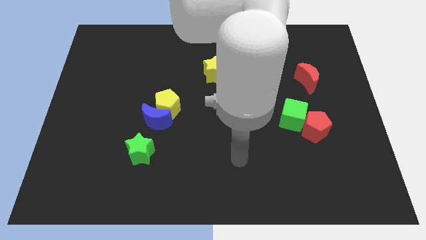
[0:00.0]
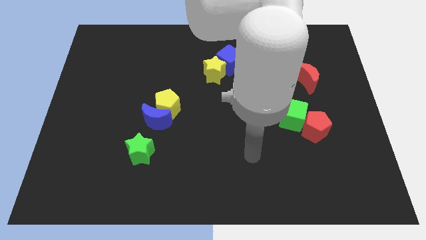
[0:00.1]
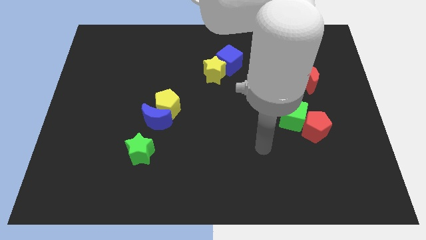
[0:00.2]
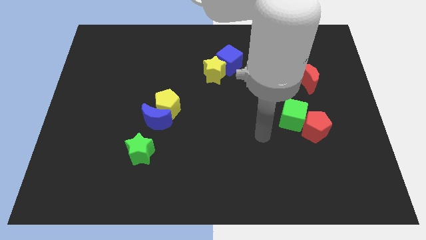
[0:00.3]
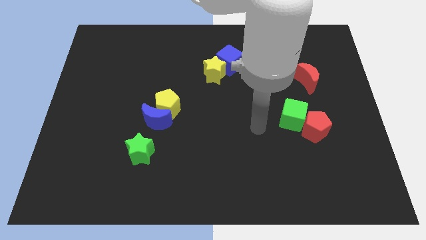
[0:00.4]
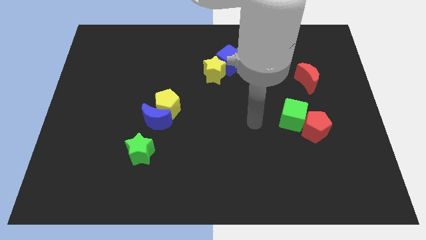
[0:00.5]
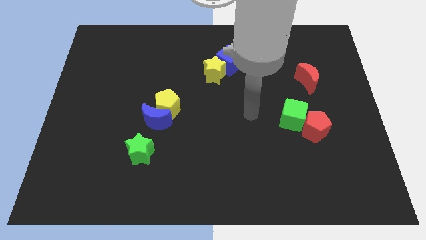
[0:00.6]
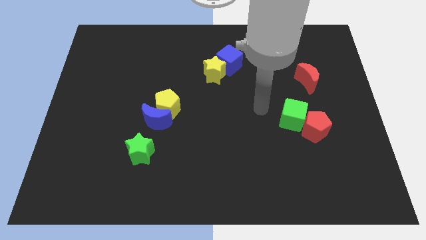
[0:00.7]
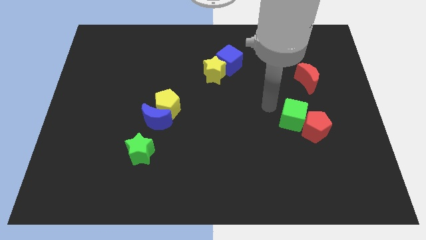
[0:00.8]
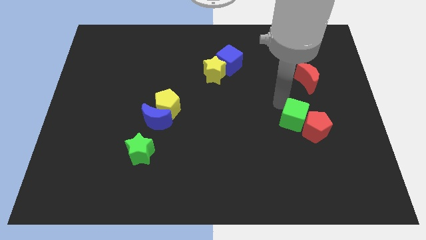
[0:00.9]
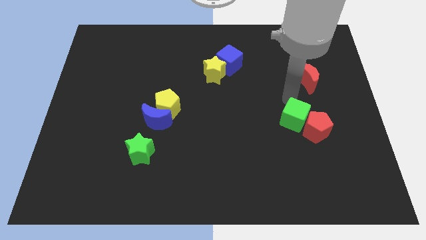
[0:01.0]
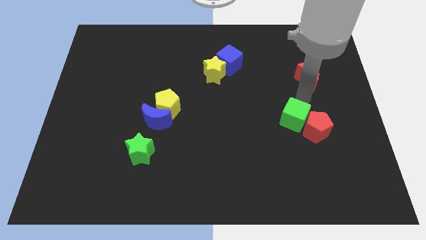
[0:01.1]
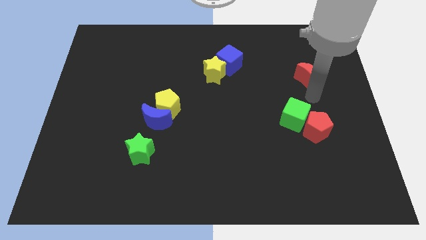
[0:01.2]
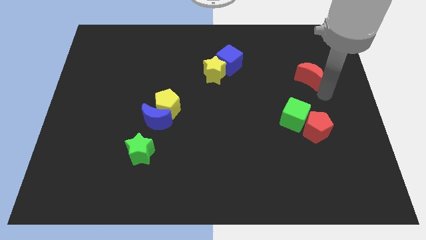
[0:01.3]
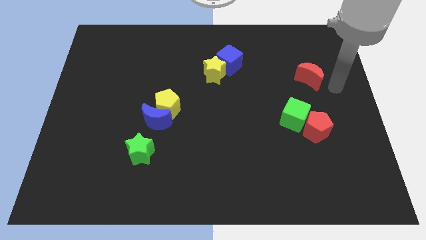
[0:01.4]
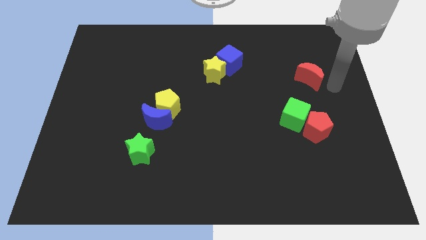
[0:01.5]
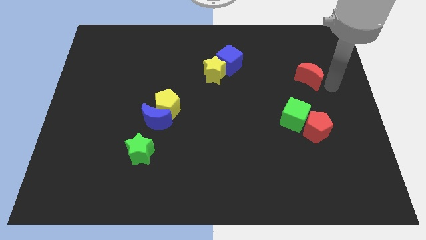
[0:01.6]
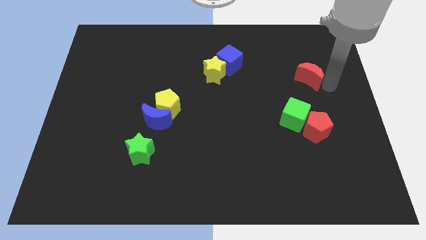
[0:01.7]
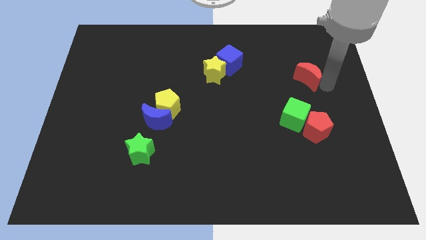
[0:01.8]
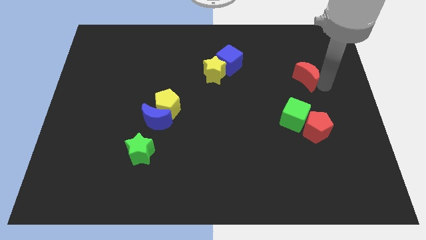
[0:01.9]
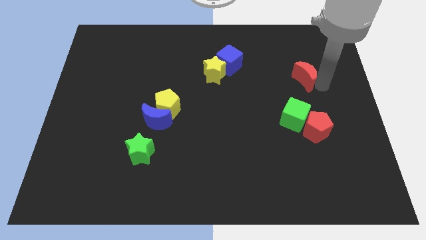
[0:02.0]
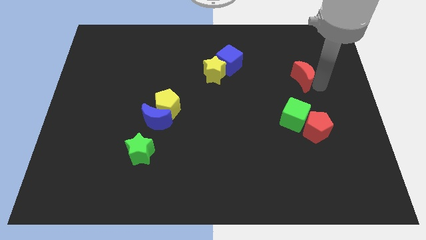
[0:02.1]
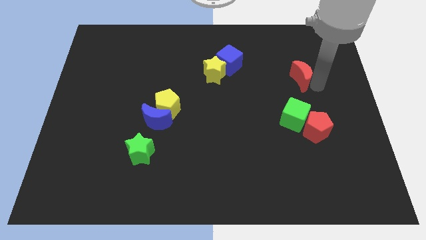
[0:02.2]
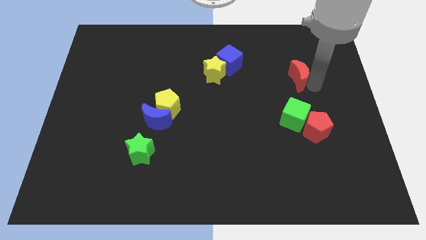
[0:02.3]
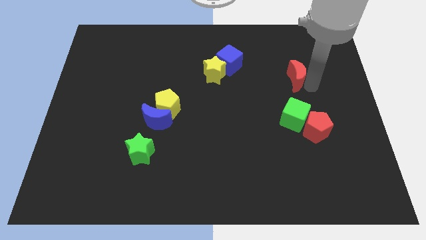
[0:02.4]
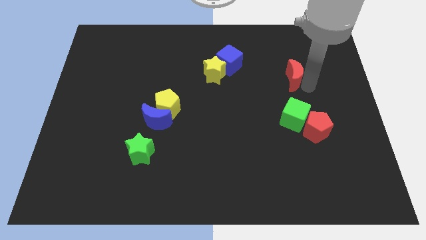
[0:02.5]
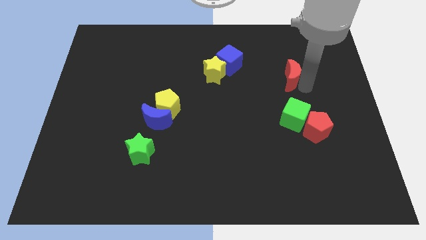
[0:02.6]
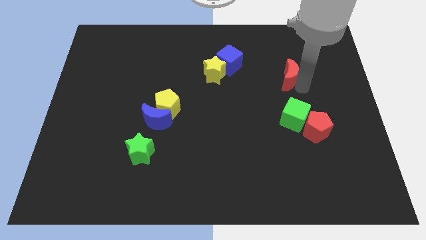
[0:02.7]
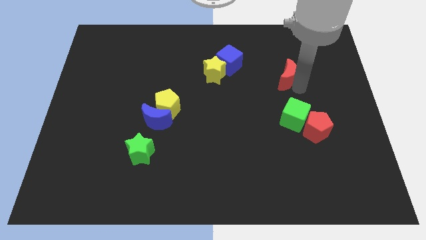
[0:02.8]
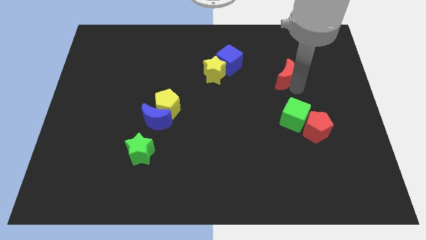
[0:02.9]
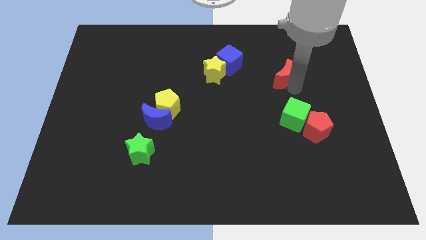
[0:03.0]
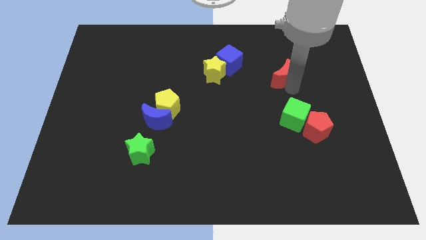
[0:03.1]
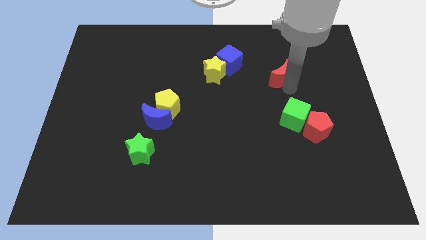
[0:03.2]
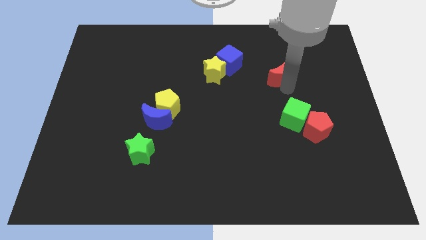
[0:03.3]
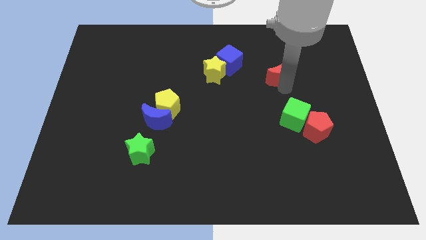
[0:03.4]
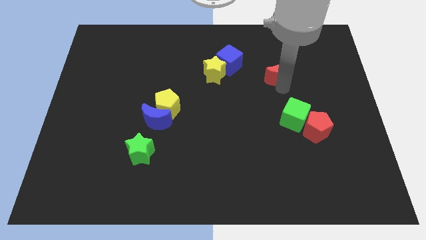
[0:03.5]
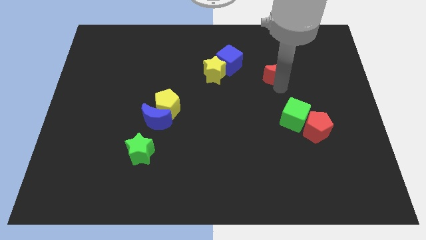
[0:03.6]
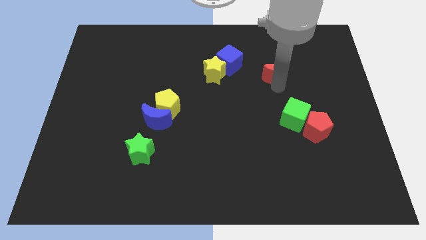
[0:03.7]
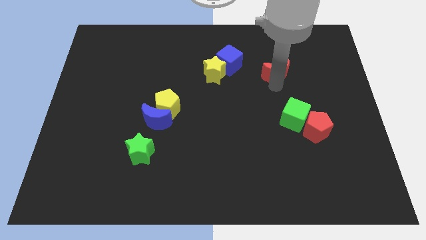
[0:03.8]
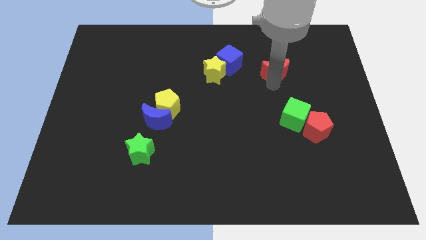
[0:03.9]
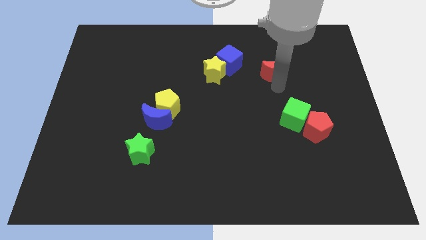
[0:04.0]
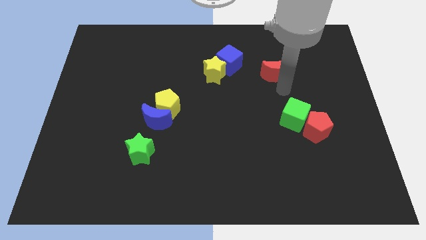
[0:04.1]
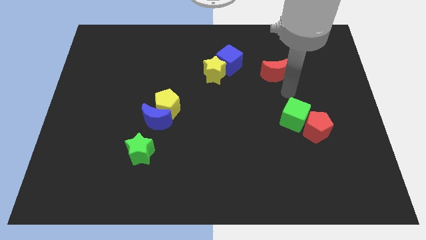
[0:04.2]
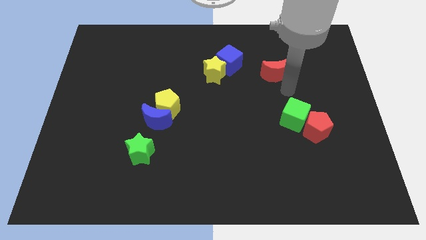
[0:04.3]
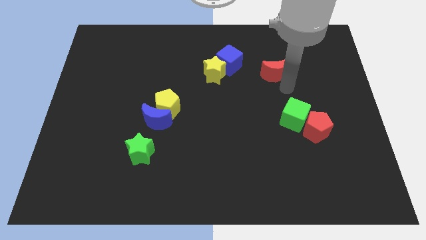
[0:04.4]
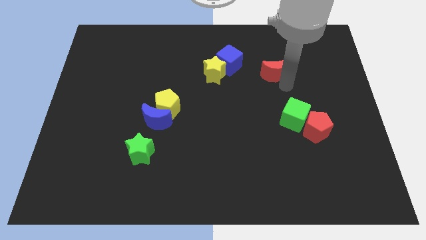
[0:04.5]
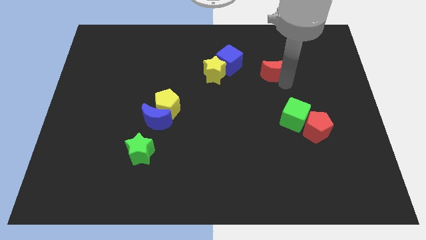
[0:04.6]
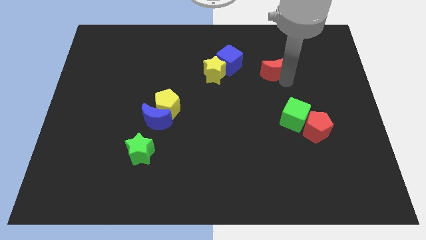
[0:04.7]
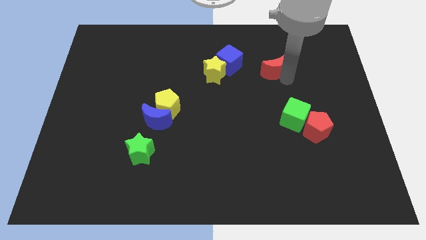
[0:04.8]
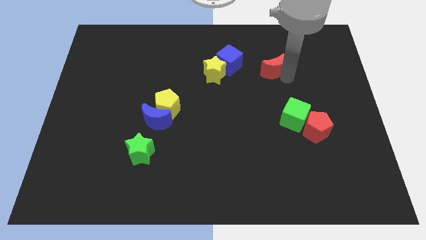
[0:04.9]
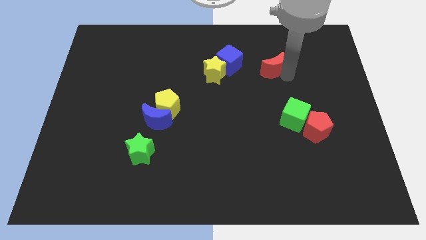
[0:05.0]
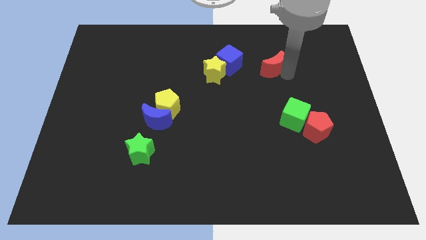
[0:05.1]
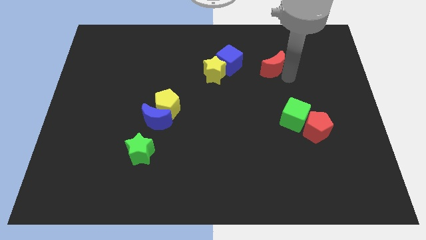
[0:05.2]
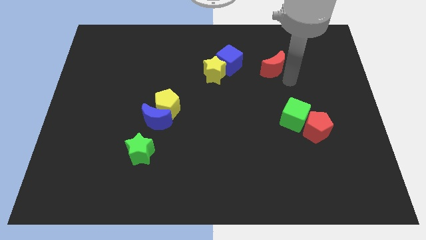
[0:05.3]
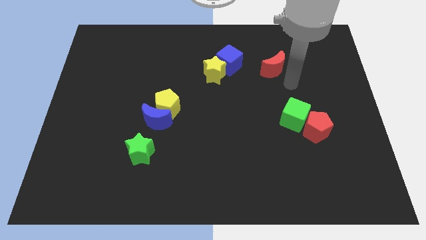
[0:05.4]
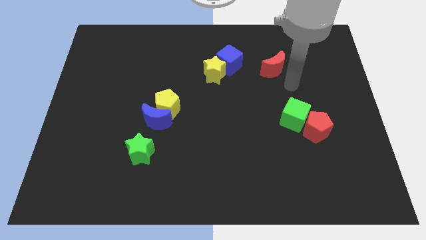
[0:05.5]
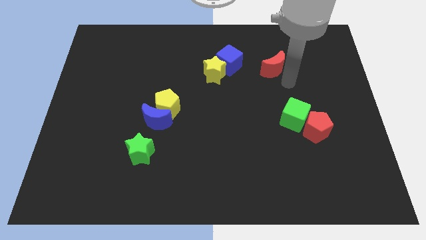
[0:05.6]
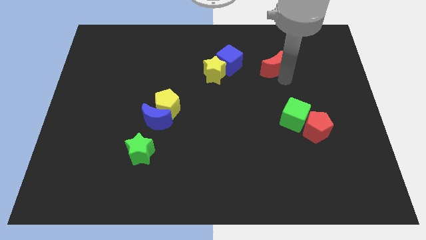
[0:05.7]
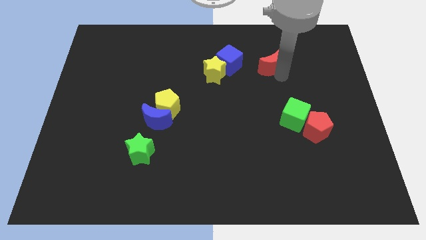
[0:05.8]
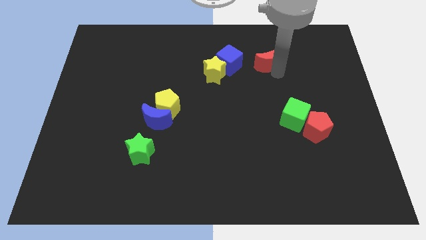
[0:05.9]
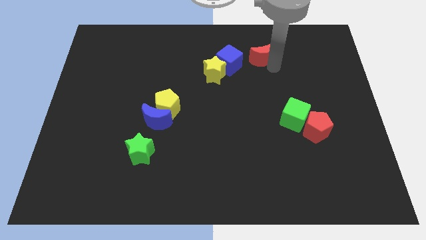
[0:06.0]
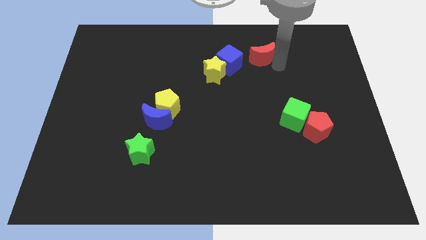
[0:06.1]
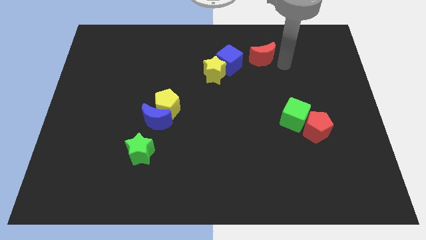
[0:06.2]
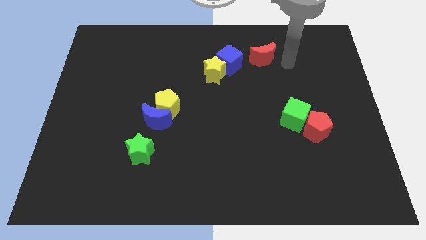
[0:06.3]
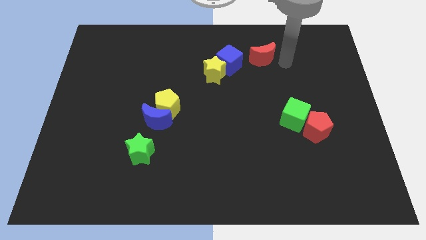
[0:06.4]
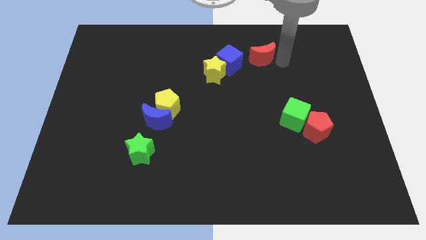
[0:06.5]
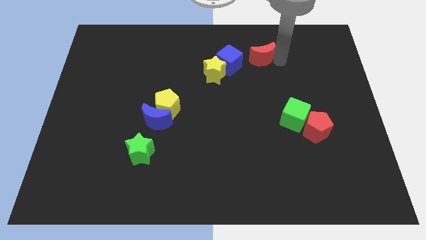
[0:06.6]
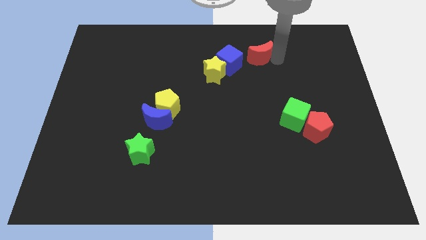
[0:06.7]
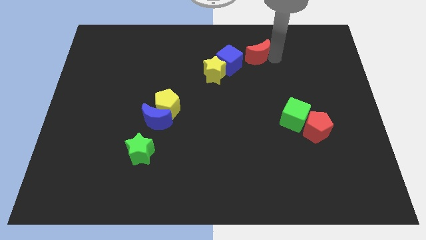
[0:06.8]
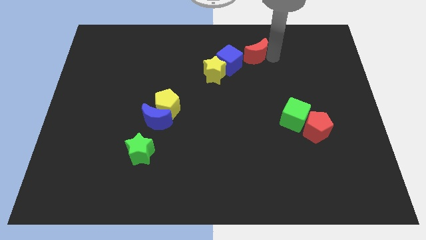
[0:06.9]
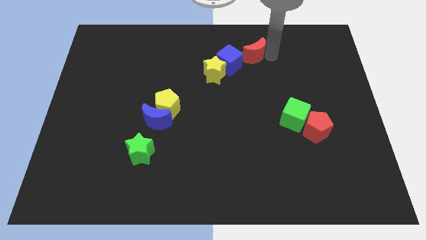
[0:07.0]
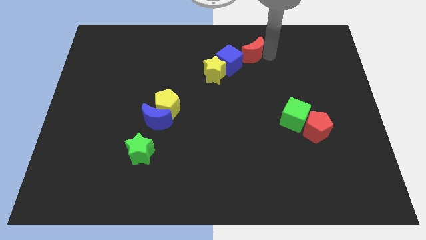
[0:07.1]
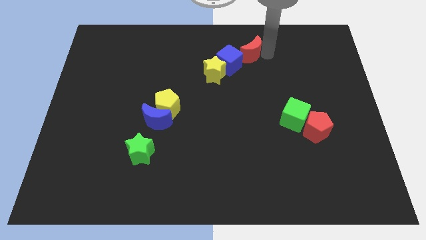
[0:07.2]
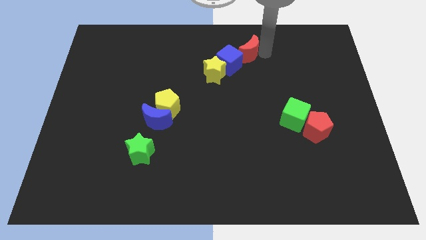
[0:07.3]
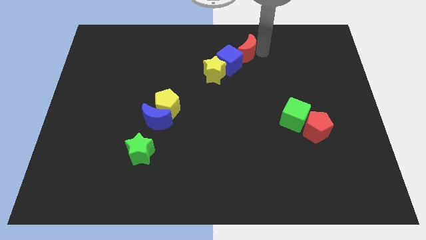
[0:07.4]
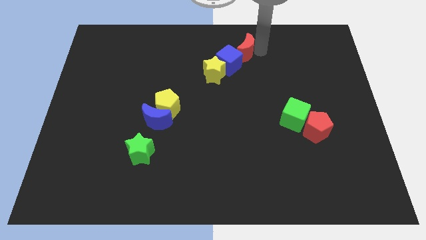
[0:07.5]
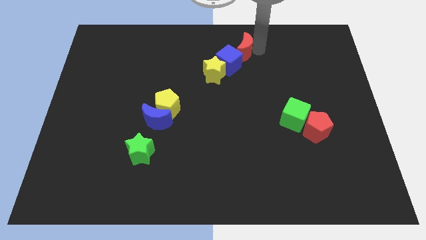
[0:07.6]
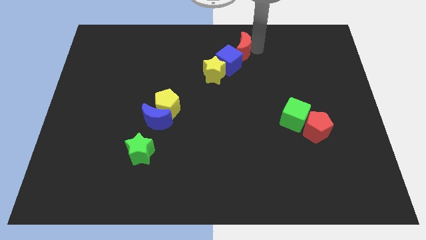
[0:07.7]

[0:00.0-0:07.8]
push the red moon to the top side
